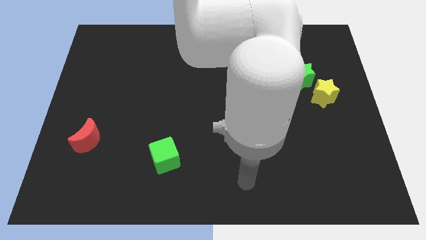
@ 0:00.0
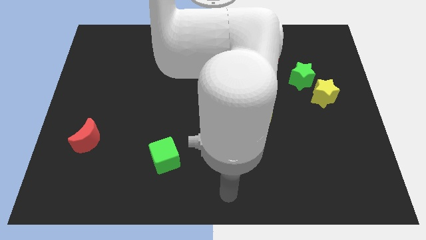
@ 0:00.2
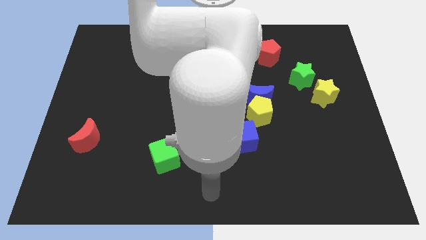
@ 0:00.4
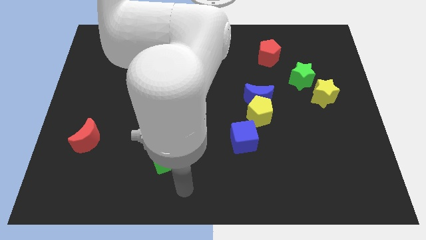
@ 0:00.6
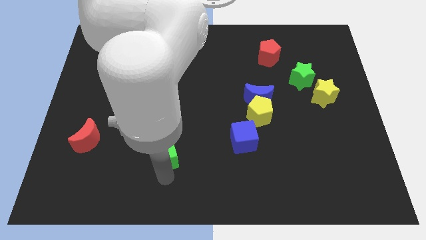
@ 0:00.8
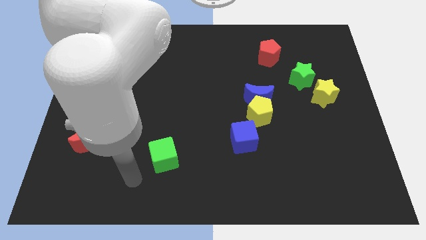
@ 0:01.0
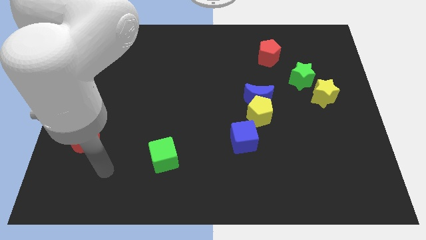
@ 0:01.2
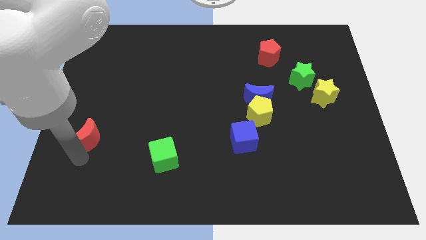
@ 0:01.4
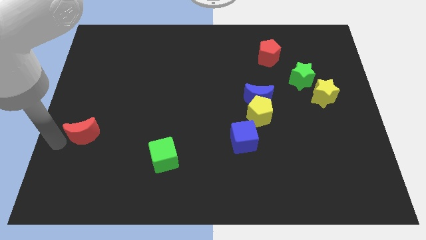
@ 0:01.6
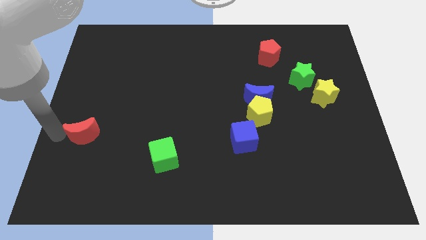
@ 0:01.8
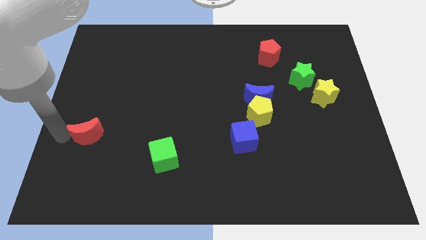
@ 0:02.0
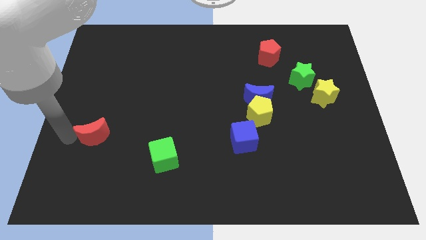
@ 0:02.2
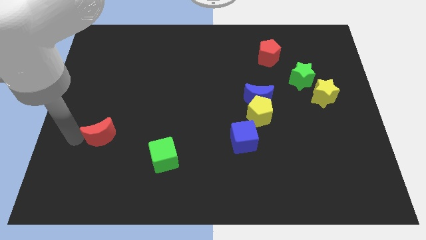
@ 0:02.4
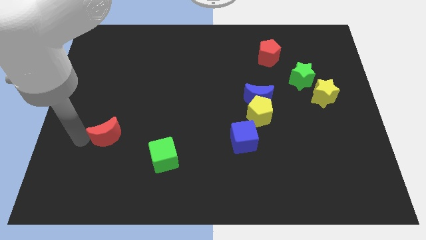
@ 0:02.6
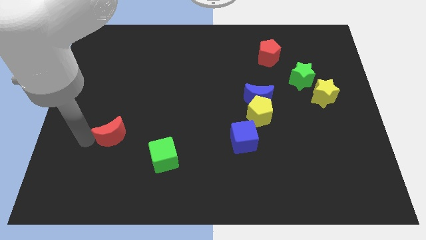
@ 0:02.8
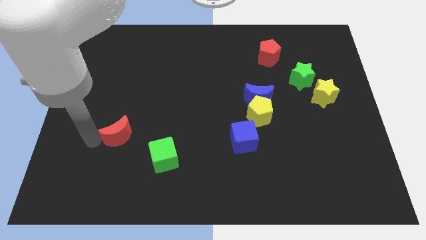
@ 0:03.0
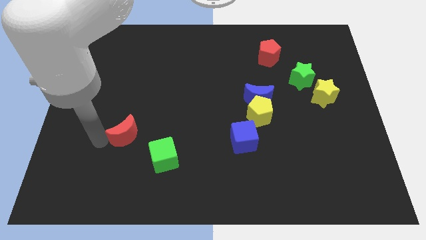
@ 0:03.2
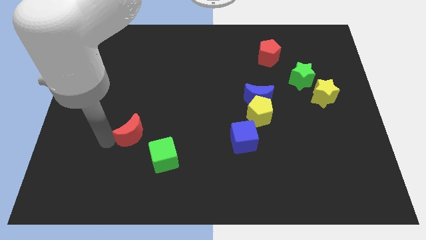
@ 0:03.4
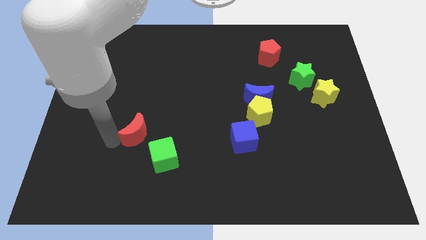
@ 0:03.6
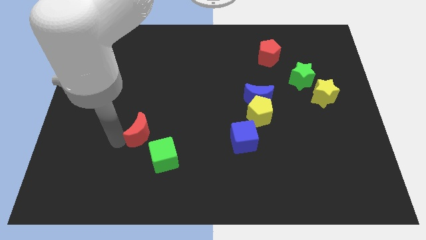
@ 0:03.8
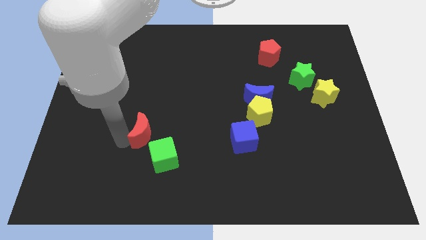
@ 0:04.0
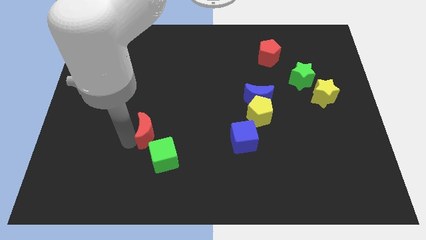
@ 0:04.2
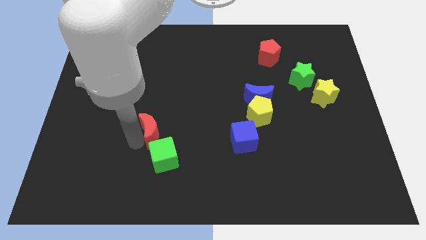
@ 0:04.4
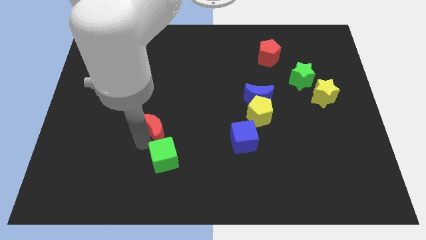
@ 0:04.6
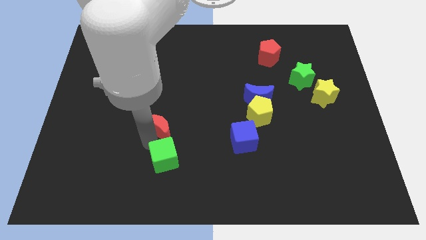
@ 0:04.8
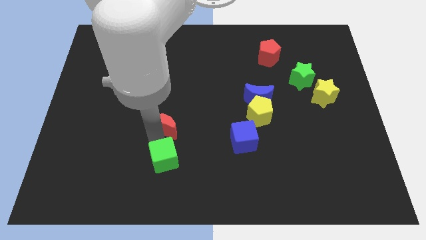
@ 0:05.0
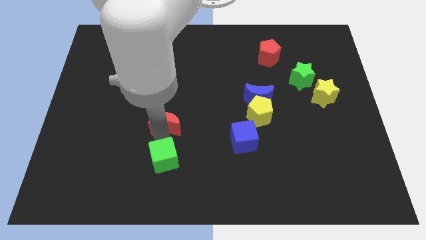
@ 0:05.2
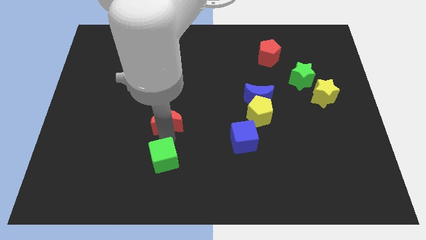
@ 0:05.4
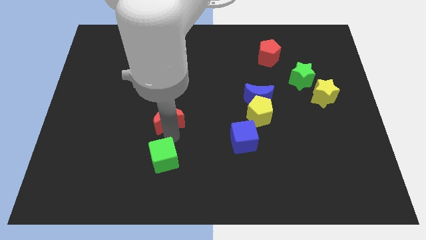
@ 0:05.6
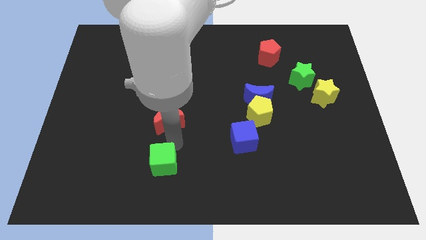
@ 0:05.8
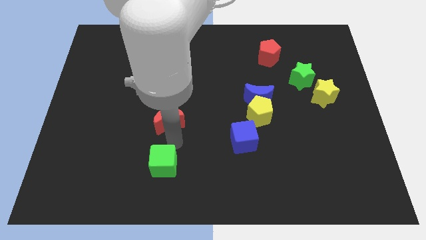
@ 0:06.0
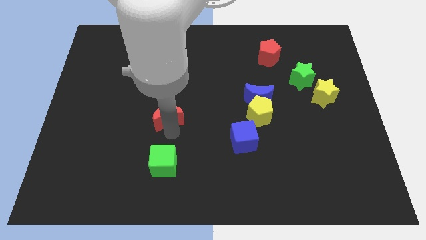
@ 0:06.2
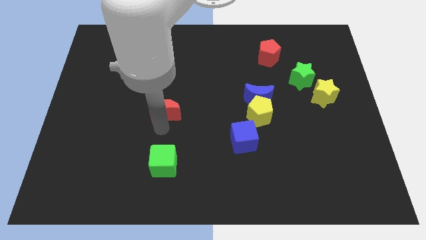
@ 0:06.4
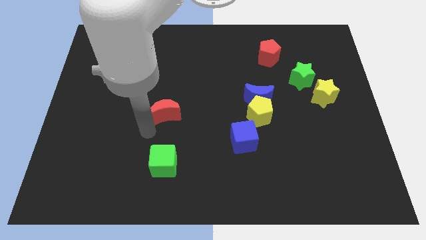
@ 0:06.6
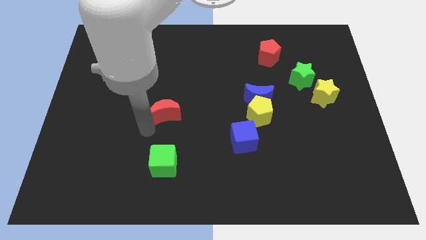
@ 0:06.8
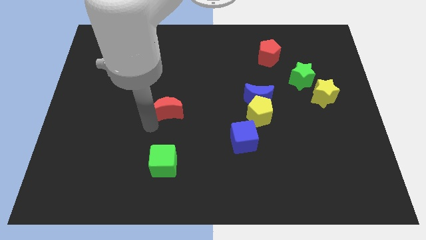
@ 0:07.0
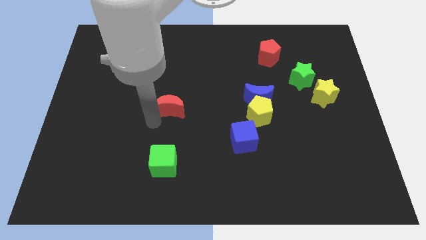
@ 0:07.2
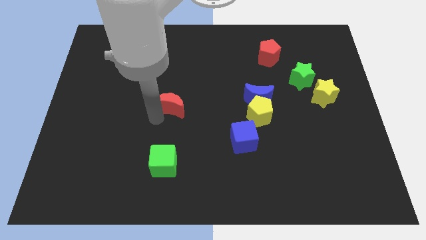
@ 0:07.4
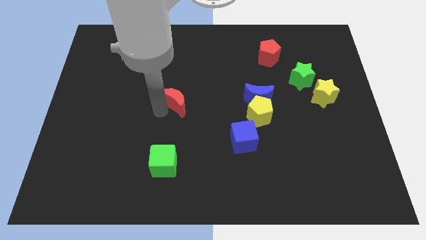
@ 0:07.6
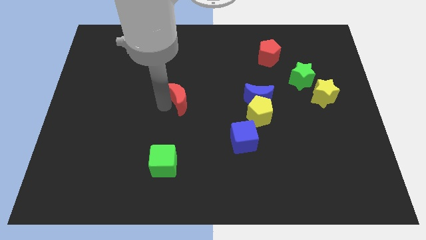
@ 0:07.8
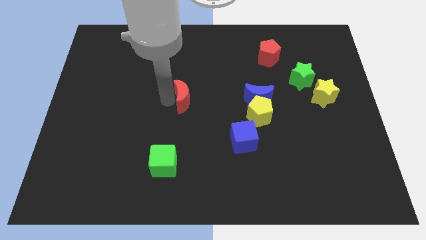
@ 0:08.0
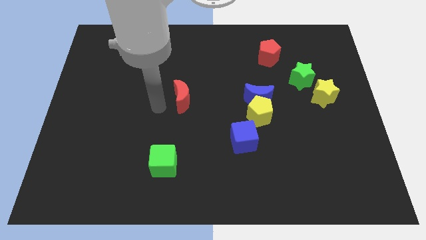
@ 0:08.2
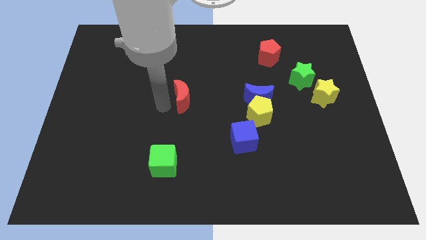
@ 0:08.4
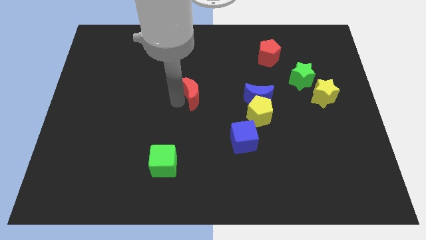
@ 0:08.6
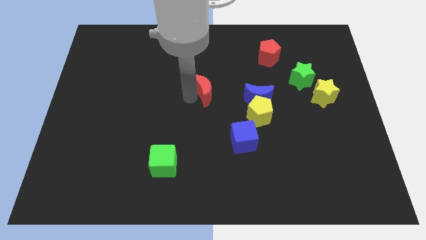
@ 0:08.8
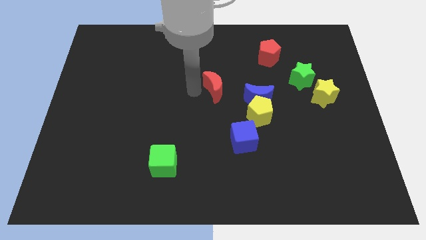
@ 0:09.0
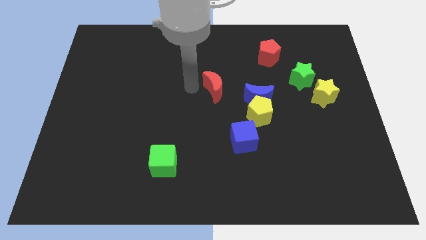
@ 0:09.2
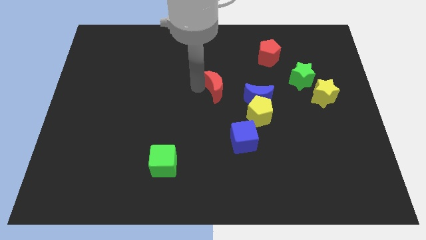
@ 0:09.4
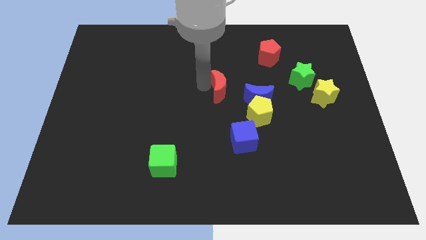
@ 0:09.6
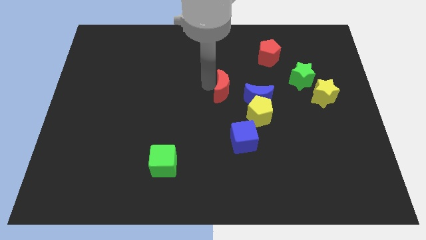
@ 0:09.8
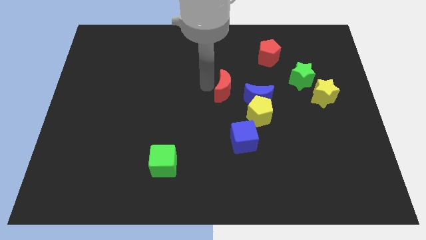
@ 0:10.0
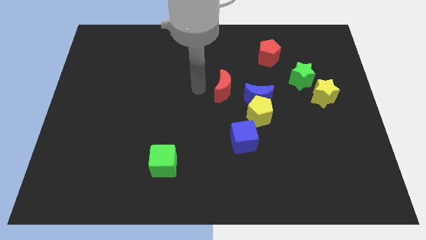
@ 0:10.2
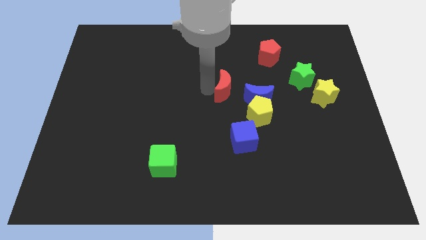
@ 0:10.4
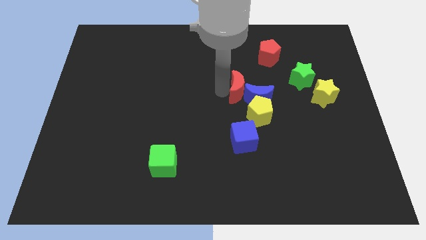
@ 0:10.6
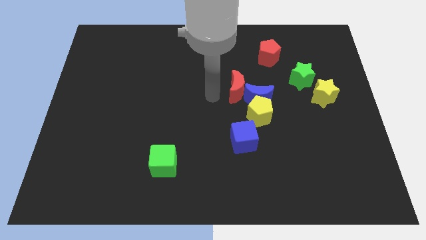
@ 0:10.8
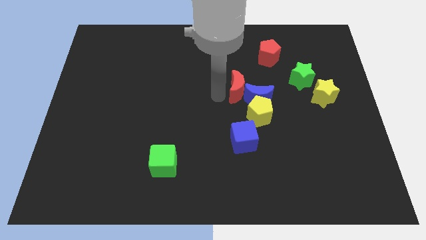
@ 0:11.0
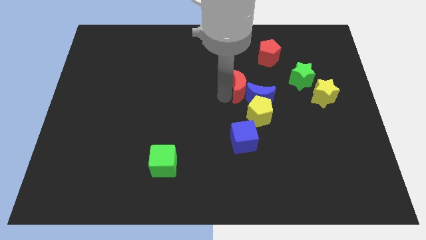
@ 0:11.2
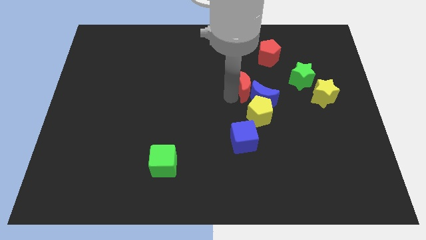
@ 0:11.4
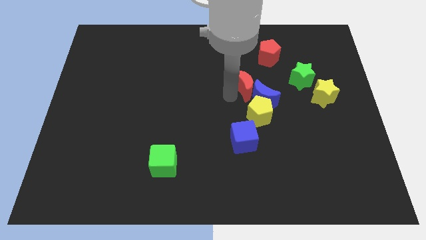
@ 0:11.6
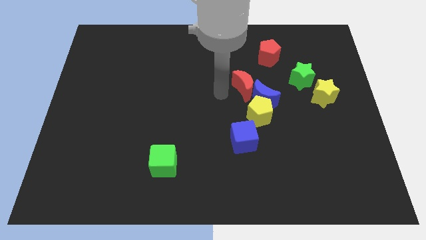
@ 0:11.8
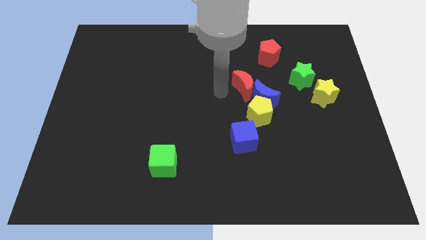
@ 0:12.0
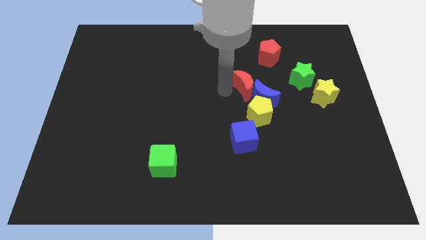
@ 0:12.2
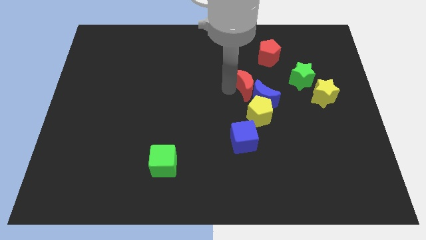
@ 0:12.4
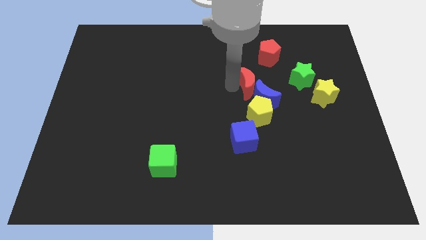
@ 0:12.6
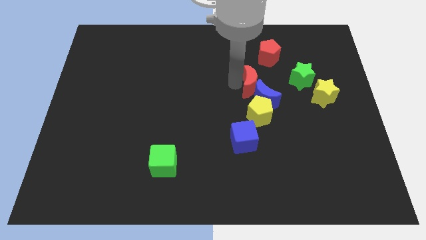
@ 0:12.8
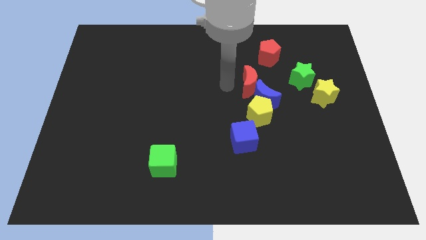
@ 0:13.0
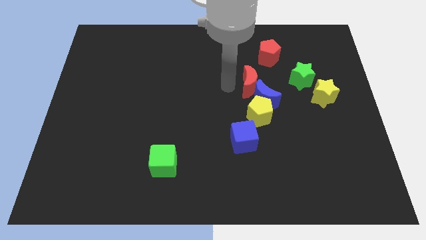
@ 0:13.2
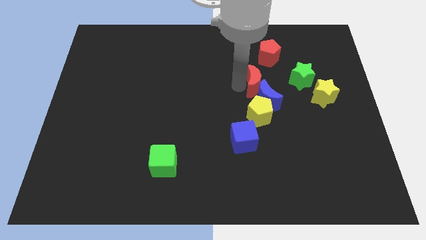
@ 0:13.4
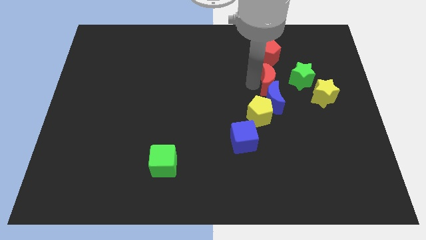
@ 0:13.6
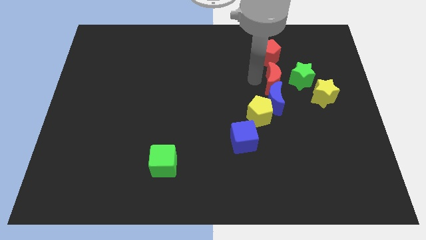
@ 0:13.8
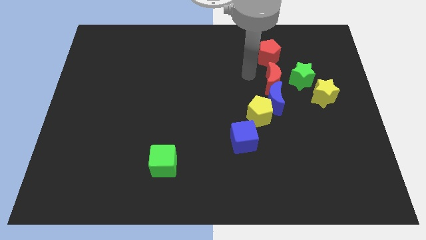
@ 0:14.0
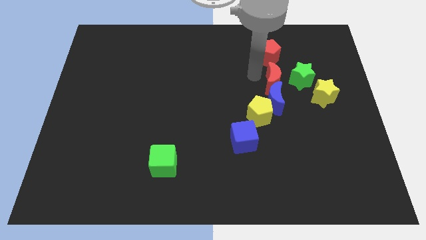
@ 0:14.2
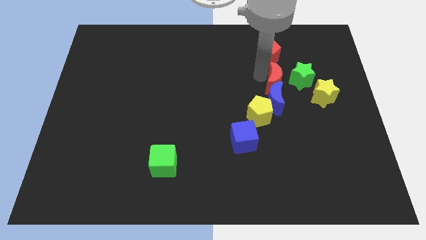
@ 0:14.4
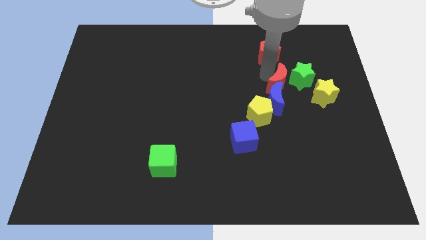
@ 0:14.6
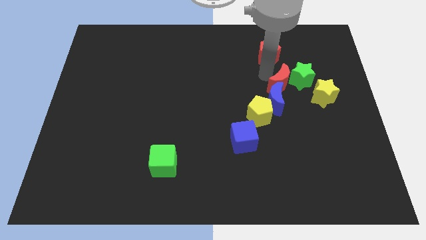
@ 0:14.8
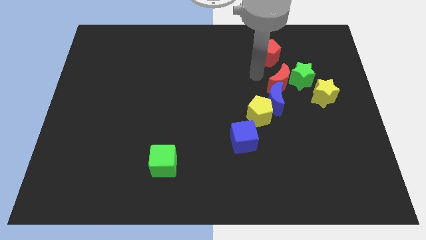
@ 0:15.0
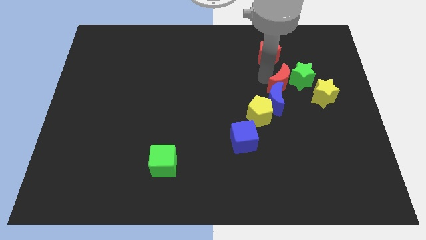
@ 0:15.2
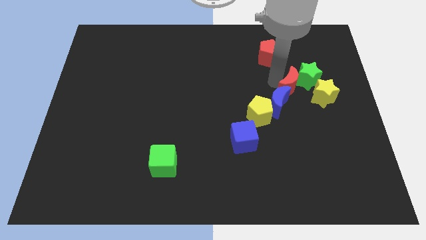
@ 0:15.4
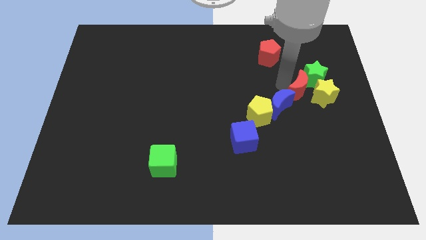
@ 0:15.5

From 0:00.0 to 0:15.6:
slide the red moon next to the yellow star
